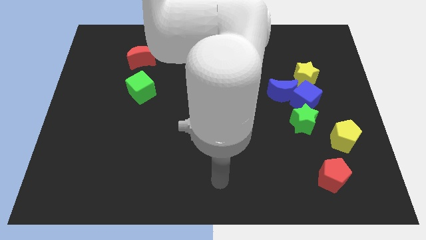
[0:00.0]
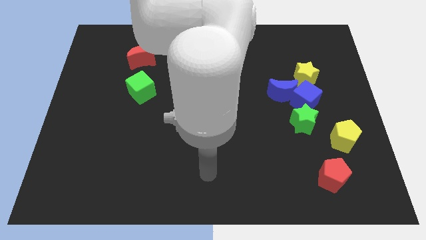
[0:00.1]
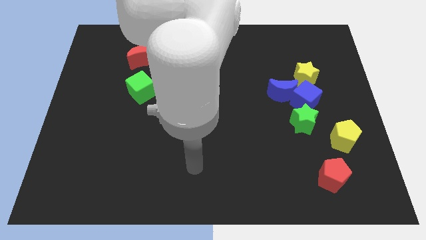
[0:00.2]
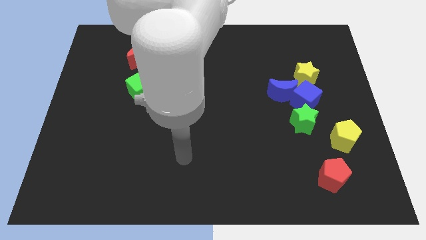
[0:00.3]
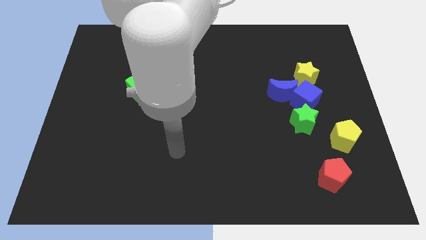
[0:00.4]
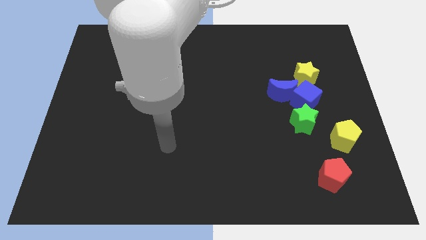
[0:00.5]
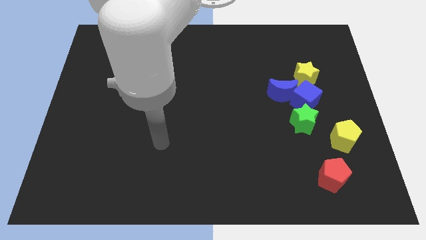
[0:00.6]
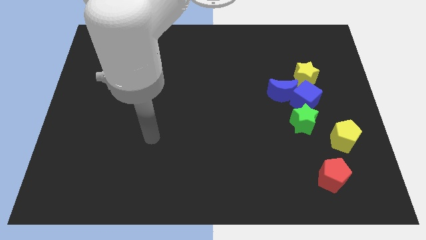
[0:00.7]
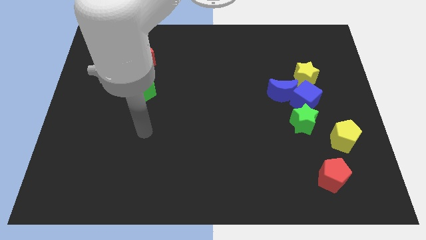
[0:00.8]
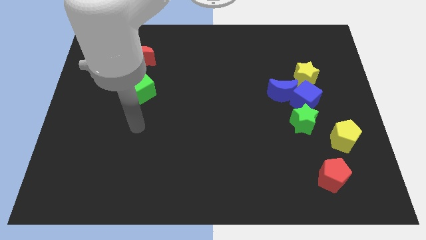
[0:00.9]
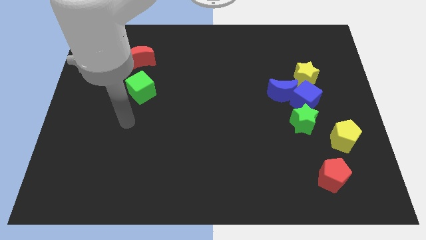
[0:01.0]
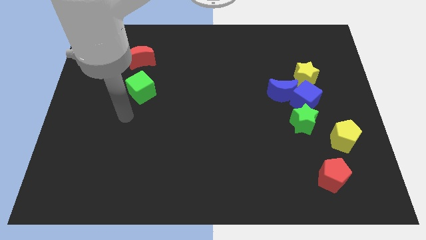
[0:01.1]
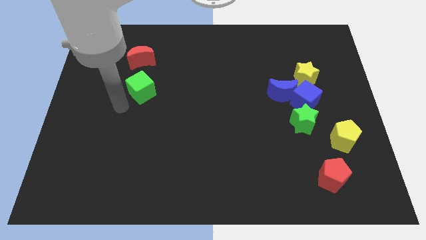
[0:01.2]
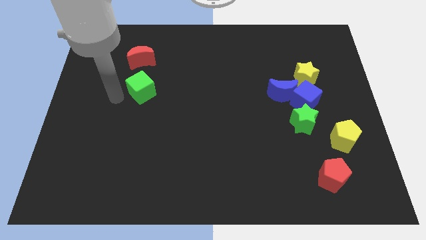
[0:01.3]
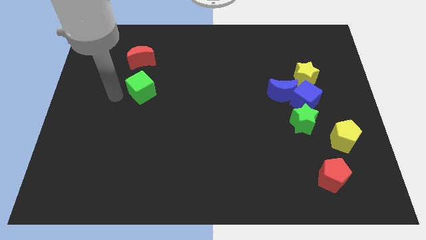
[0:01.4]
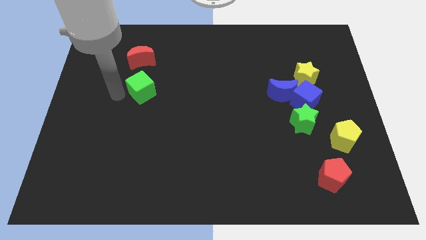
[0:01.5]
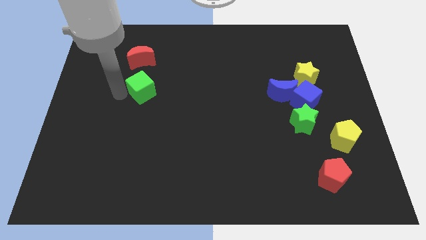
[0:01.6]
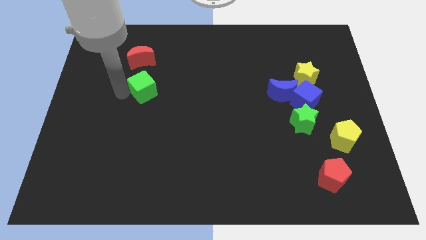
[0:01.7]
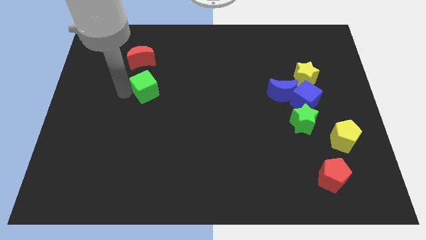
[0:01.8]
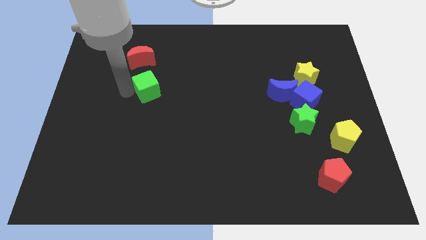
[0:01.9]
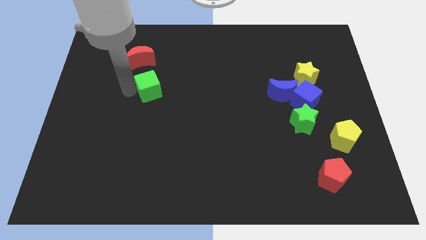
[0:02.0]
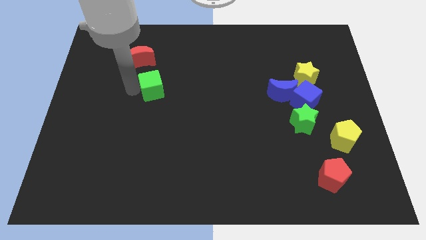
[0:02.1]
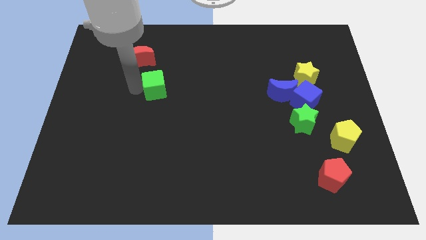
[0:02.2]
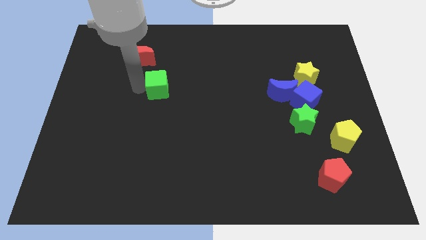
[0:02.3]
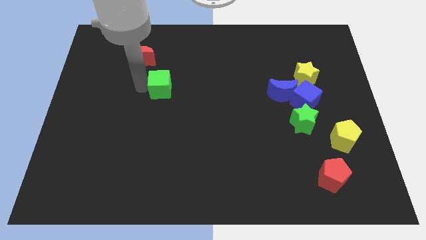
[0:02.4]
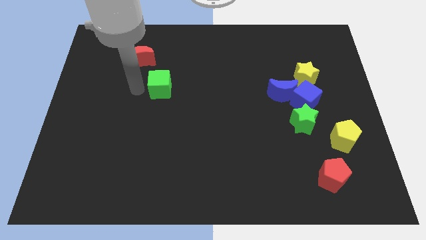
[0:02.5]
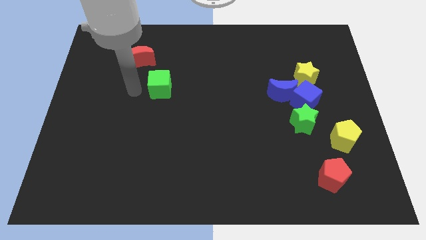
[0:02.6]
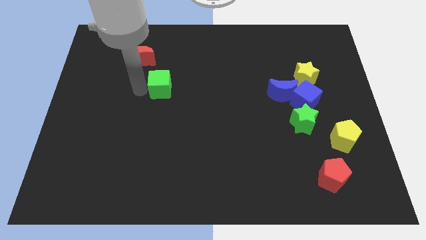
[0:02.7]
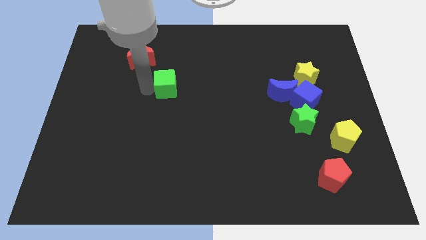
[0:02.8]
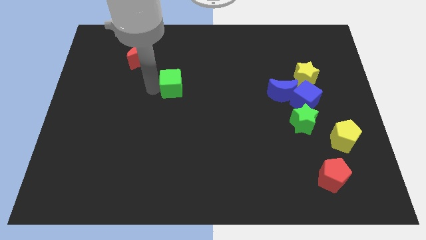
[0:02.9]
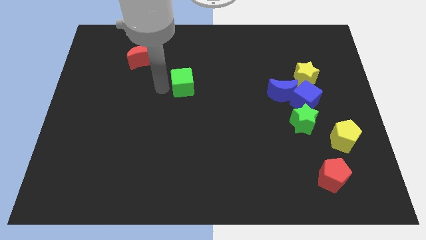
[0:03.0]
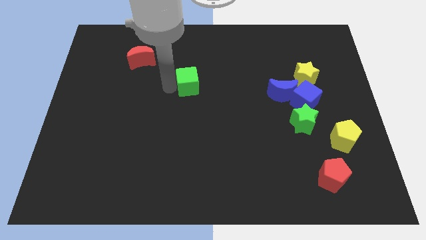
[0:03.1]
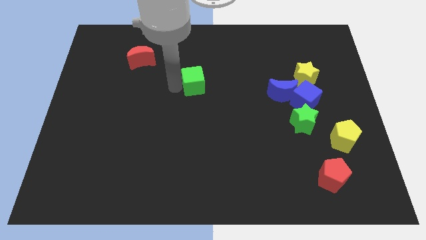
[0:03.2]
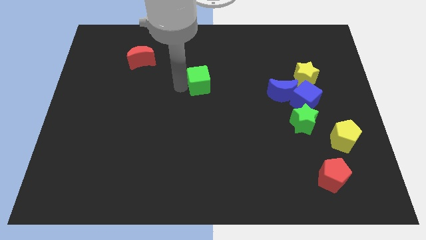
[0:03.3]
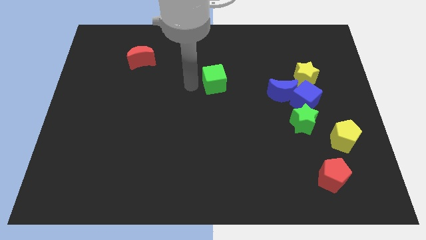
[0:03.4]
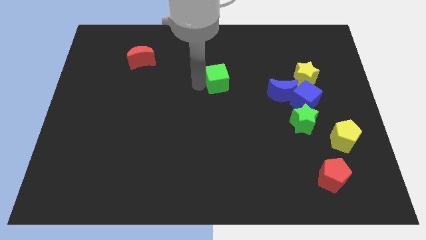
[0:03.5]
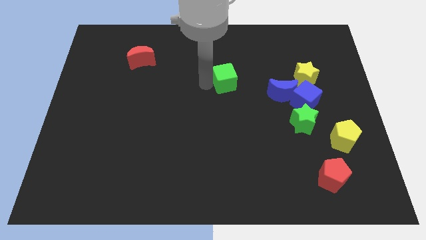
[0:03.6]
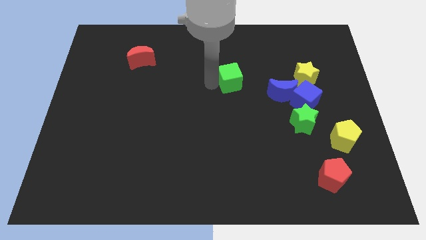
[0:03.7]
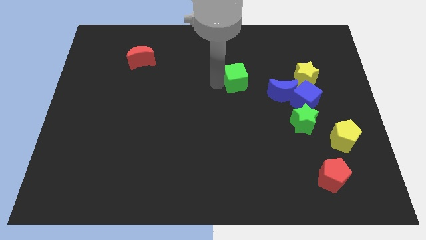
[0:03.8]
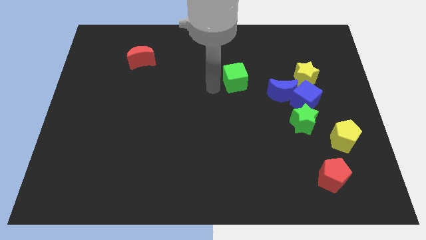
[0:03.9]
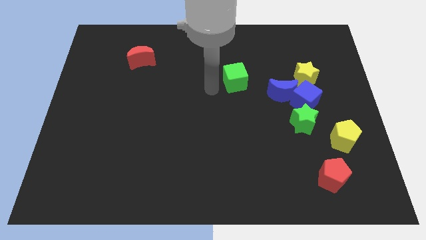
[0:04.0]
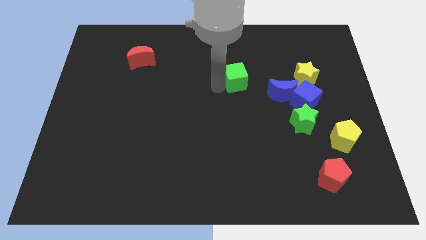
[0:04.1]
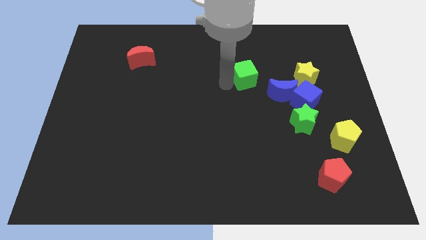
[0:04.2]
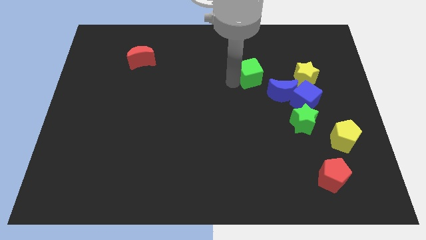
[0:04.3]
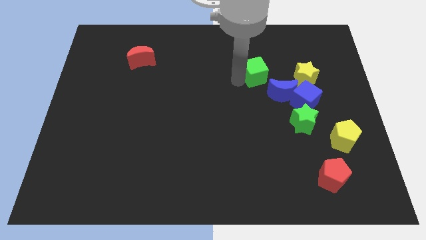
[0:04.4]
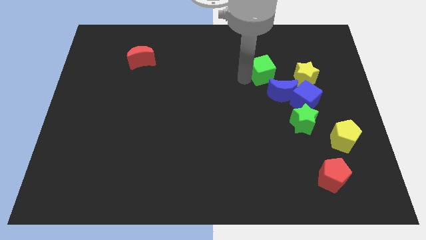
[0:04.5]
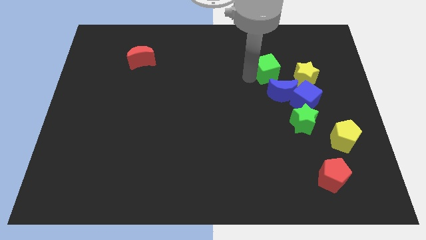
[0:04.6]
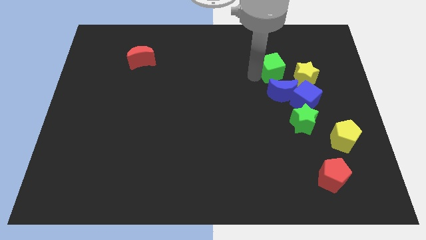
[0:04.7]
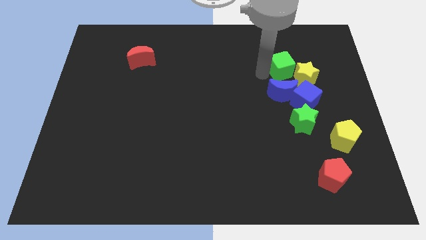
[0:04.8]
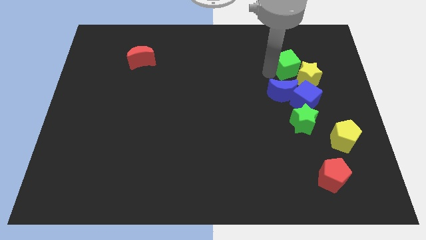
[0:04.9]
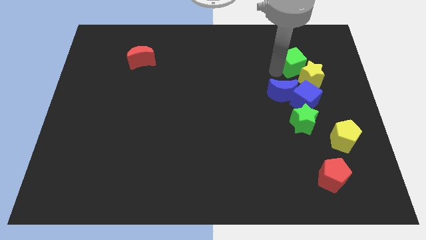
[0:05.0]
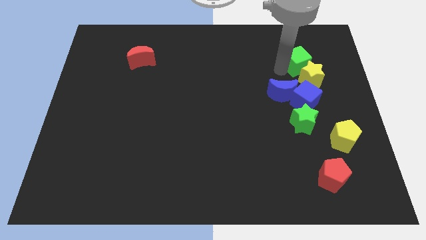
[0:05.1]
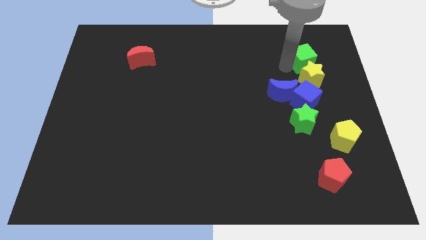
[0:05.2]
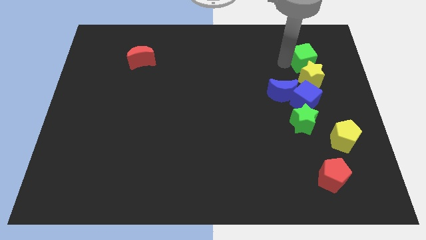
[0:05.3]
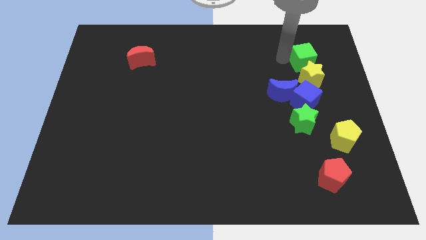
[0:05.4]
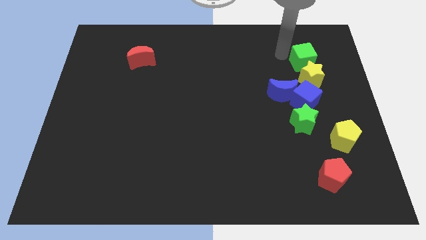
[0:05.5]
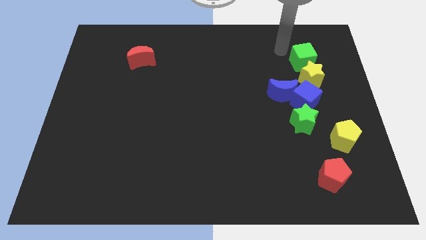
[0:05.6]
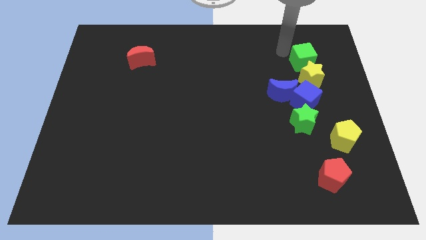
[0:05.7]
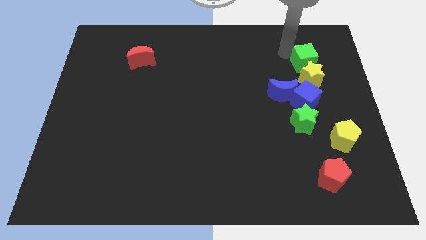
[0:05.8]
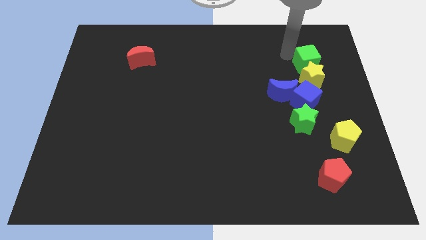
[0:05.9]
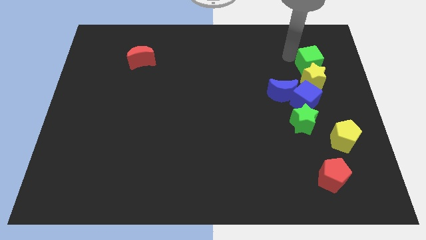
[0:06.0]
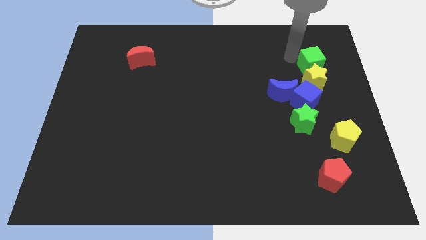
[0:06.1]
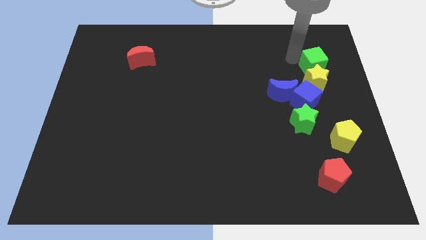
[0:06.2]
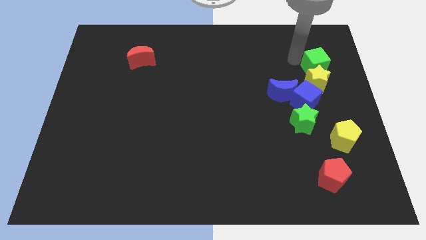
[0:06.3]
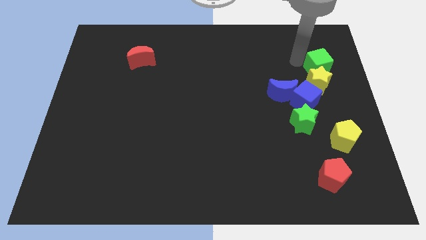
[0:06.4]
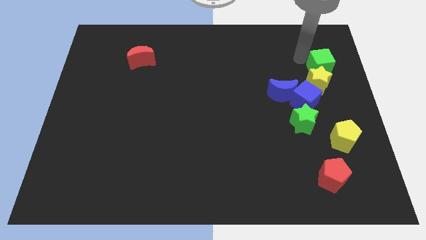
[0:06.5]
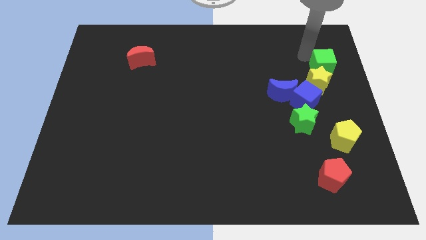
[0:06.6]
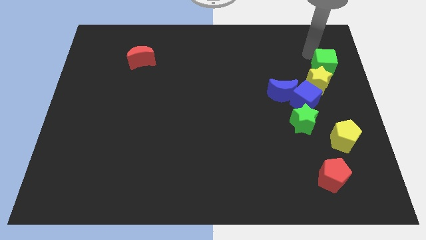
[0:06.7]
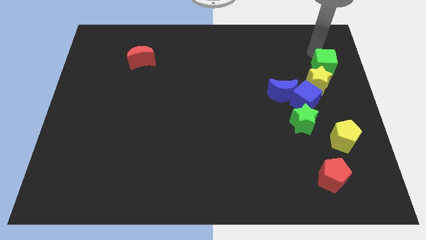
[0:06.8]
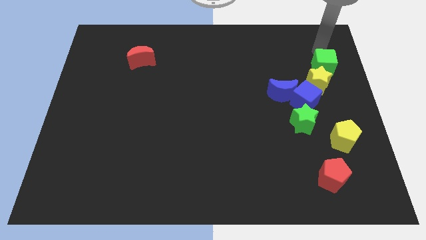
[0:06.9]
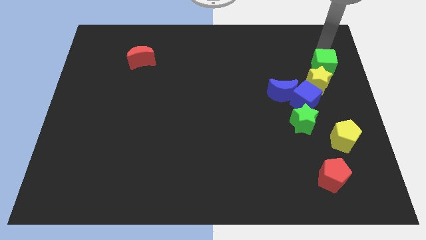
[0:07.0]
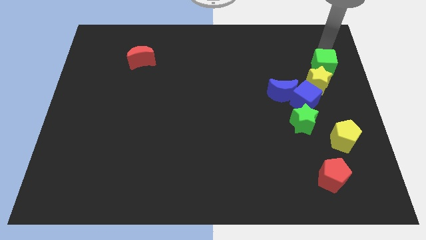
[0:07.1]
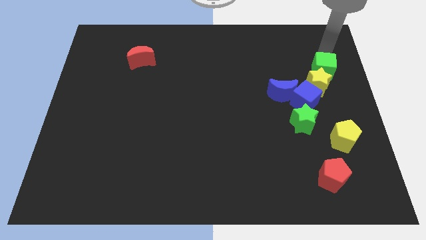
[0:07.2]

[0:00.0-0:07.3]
move the green cube to the top right side of the blue cube
